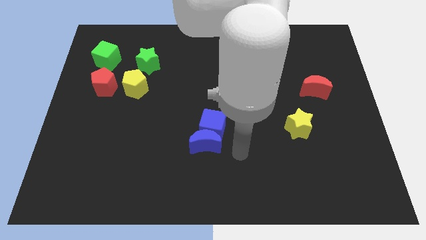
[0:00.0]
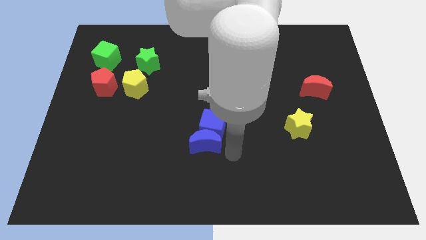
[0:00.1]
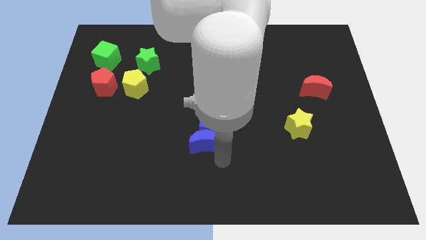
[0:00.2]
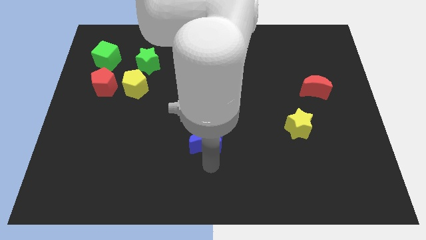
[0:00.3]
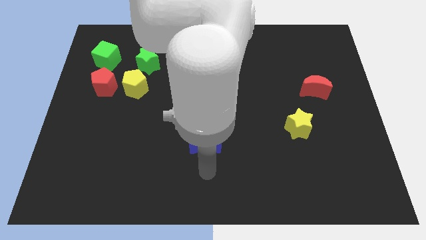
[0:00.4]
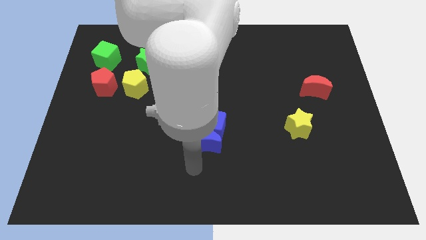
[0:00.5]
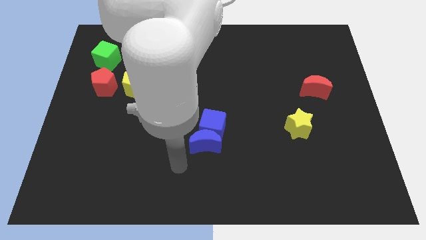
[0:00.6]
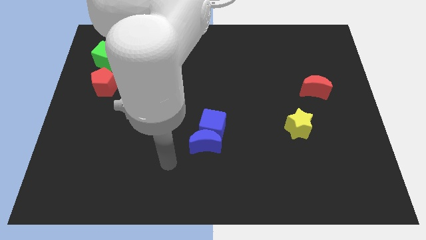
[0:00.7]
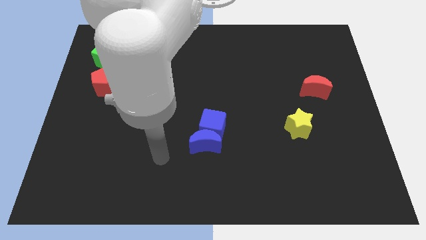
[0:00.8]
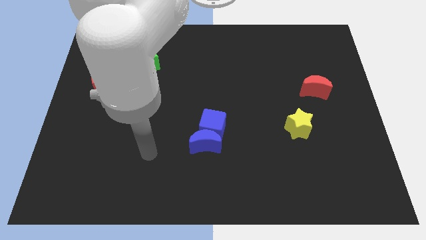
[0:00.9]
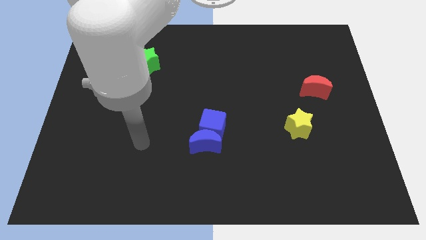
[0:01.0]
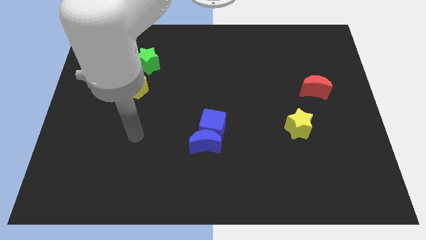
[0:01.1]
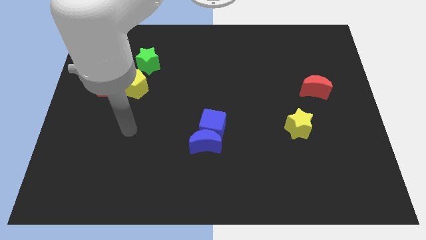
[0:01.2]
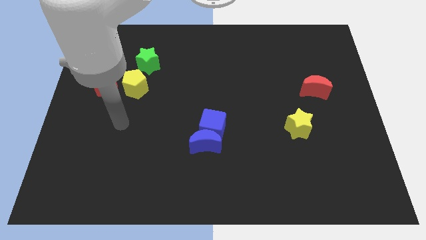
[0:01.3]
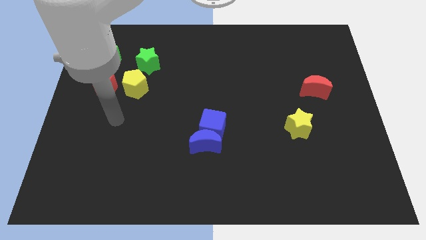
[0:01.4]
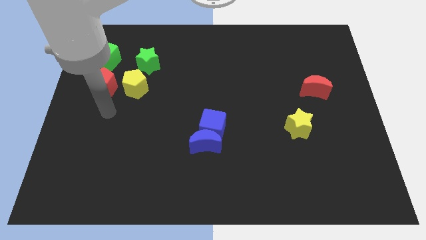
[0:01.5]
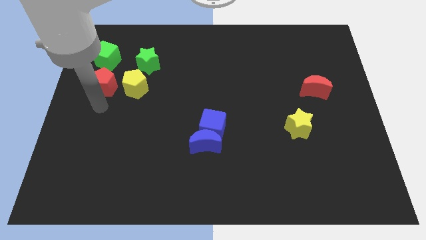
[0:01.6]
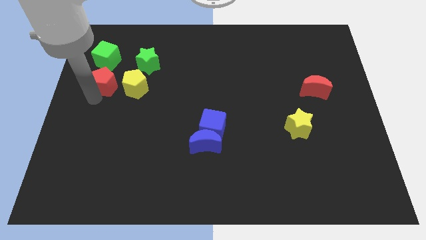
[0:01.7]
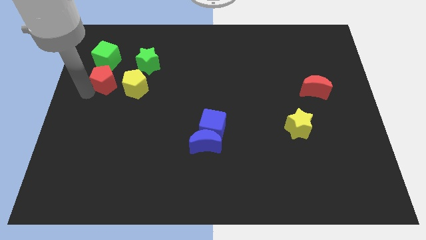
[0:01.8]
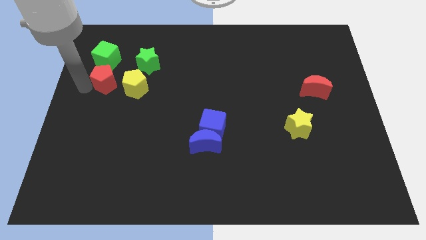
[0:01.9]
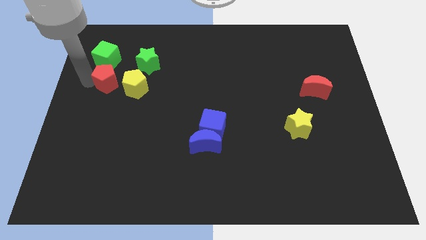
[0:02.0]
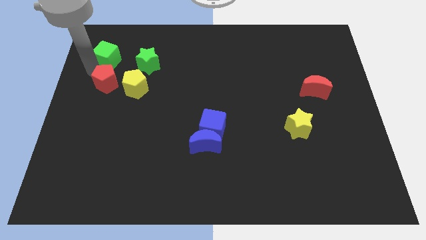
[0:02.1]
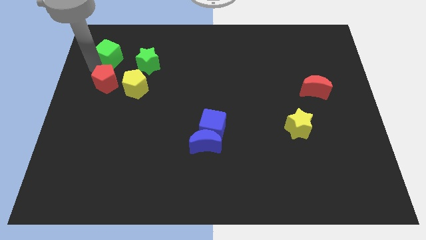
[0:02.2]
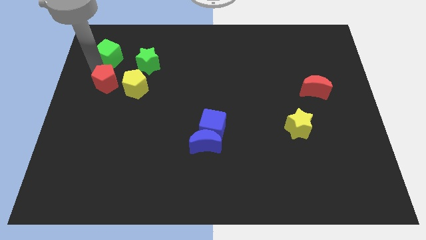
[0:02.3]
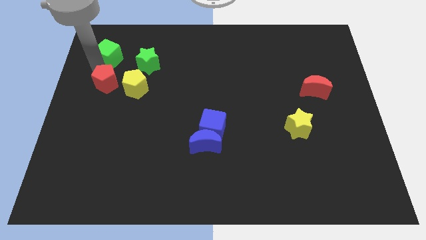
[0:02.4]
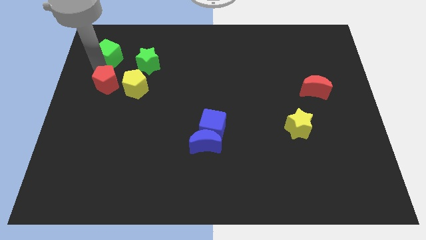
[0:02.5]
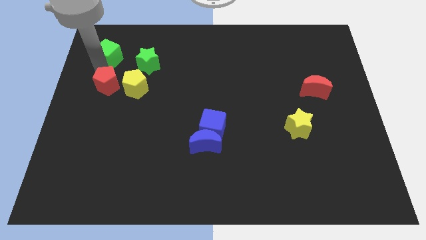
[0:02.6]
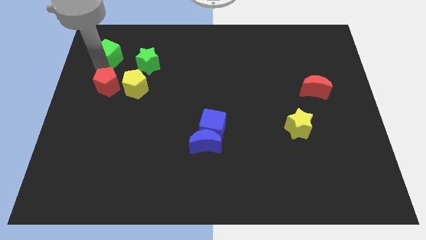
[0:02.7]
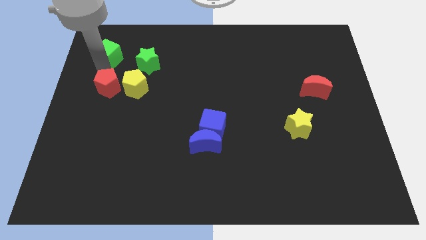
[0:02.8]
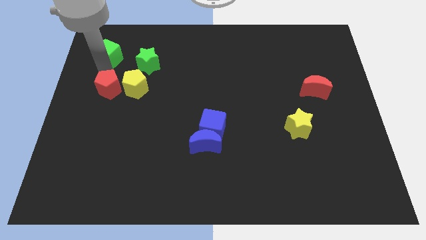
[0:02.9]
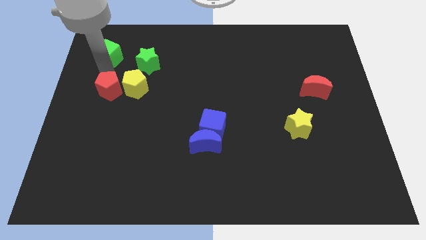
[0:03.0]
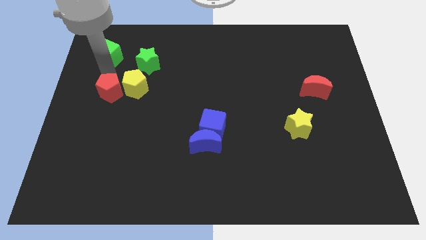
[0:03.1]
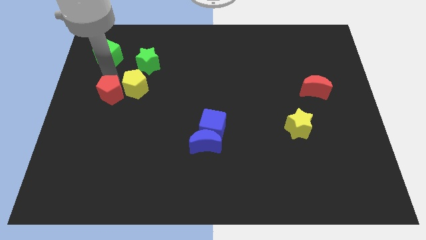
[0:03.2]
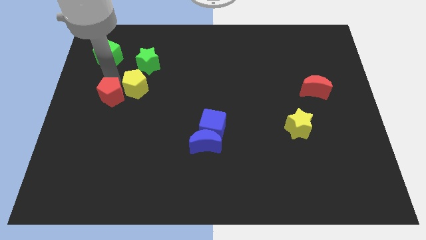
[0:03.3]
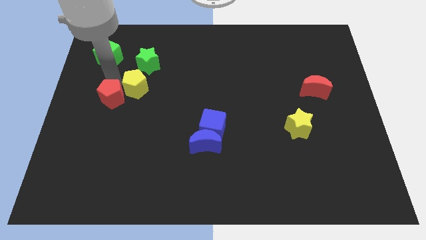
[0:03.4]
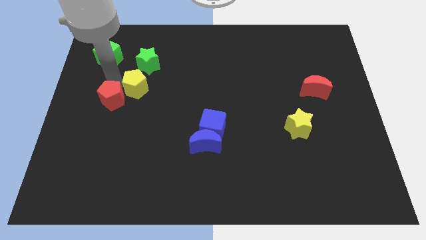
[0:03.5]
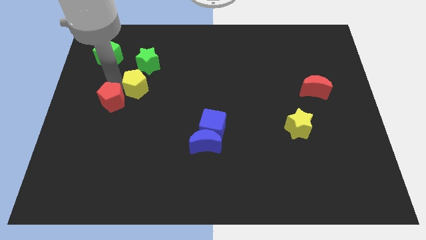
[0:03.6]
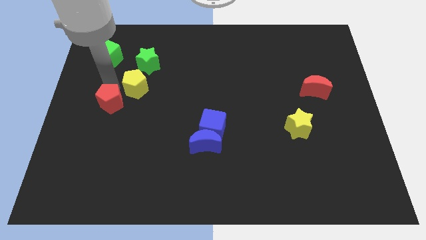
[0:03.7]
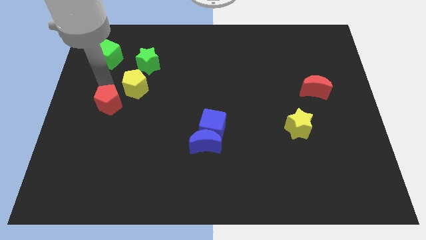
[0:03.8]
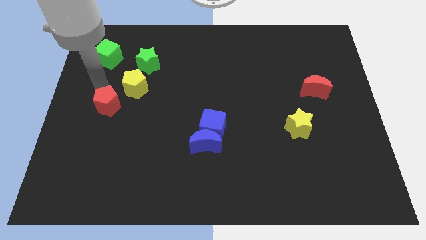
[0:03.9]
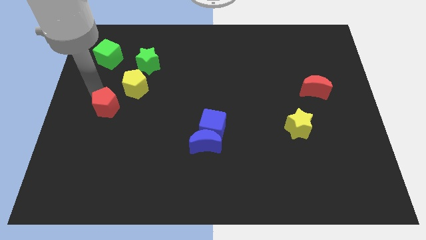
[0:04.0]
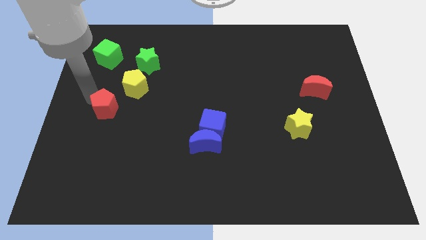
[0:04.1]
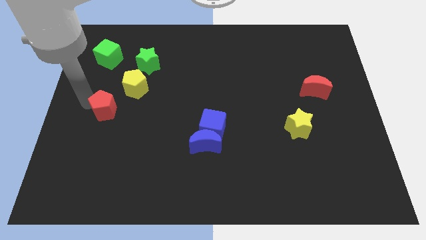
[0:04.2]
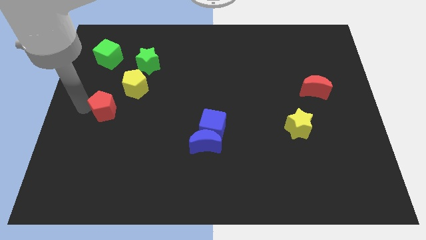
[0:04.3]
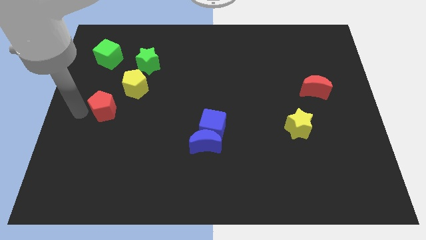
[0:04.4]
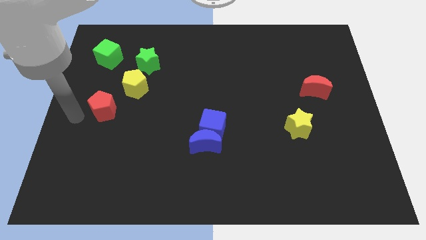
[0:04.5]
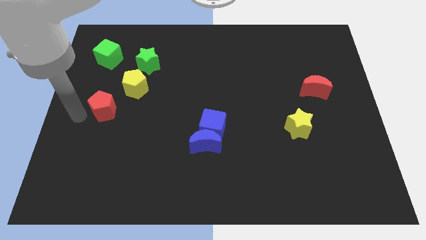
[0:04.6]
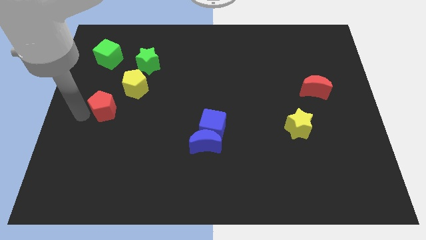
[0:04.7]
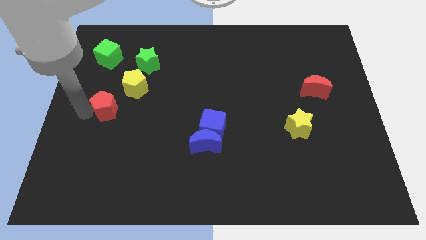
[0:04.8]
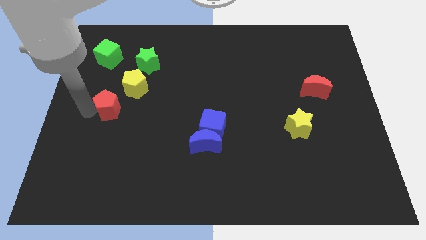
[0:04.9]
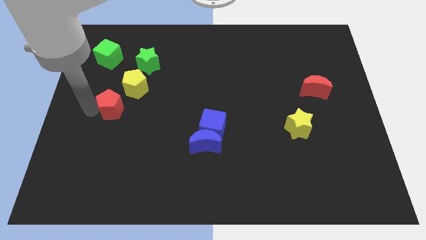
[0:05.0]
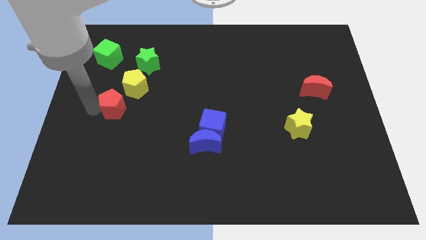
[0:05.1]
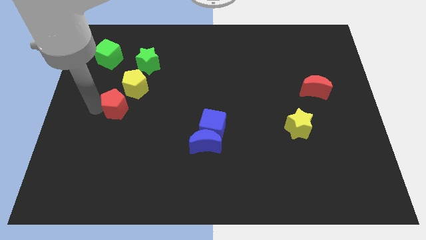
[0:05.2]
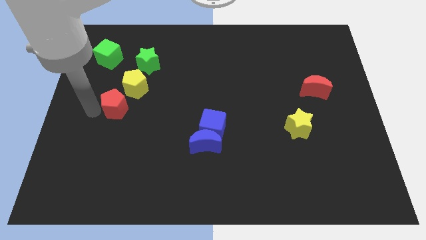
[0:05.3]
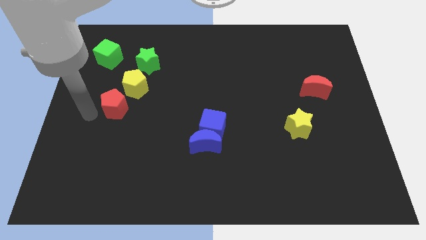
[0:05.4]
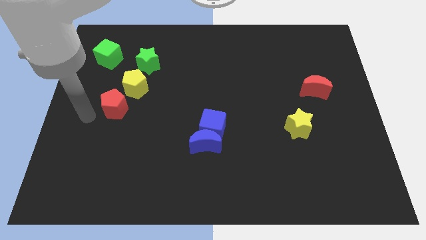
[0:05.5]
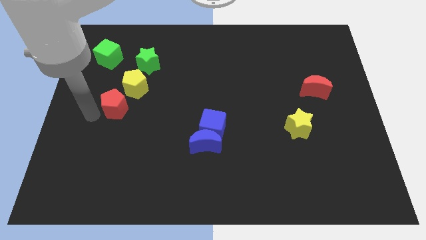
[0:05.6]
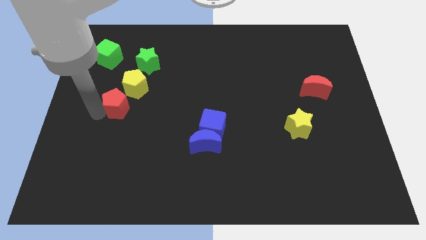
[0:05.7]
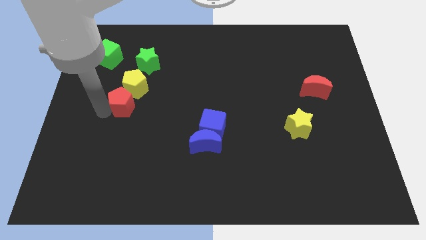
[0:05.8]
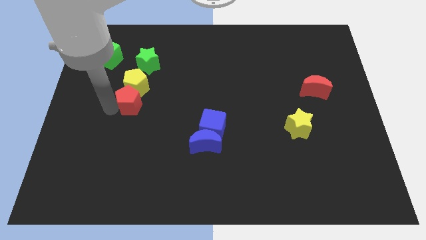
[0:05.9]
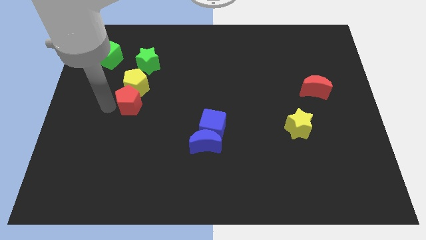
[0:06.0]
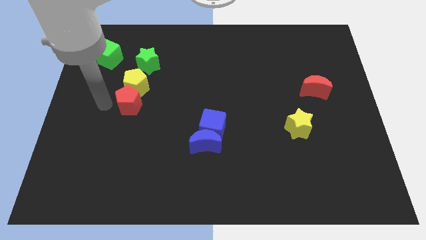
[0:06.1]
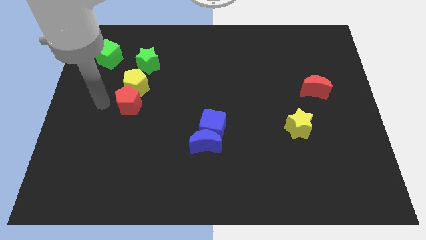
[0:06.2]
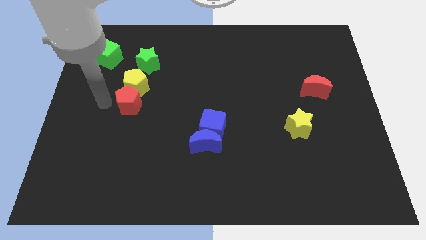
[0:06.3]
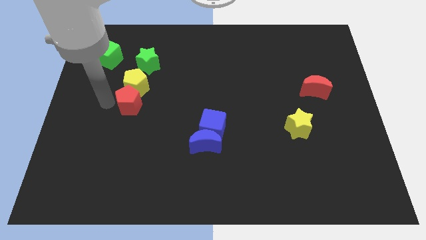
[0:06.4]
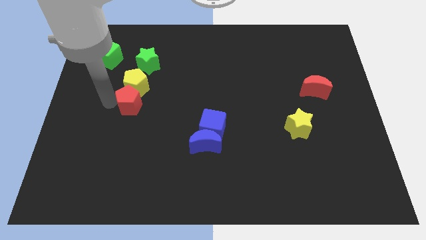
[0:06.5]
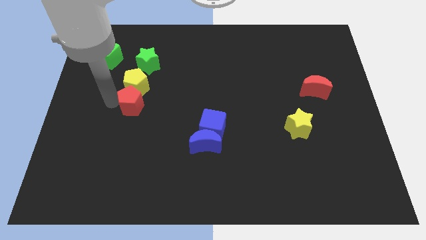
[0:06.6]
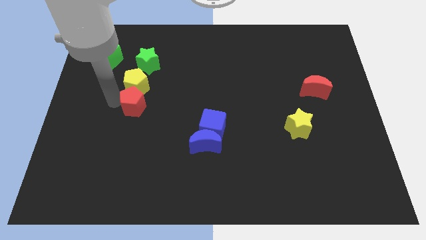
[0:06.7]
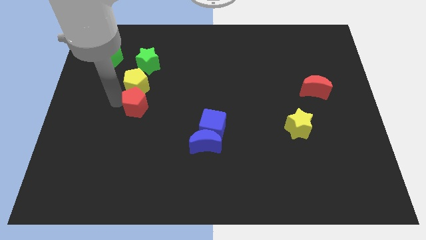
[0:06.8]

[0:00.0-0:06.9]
slightly slide the red pentagon right

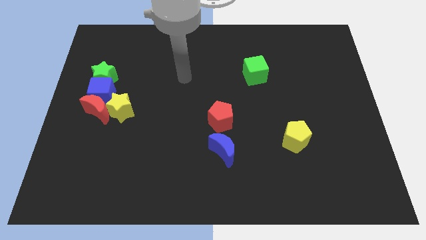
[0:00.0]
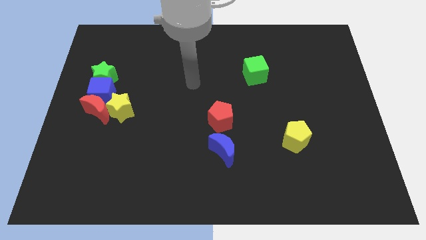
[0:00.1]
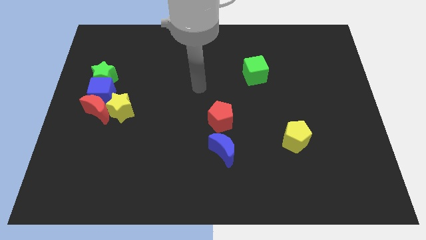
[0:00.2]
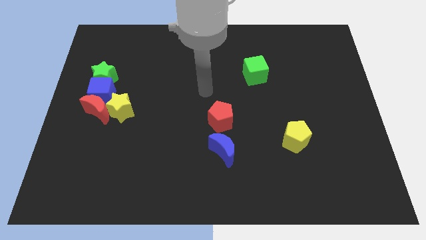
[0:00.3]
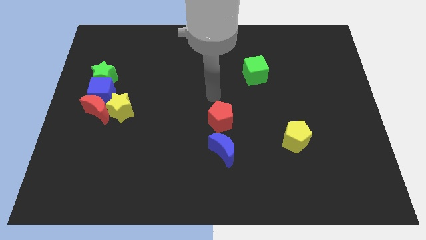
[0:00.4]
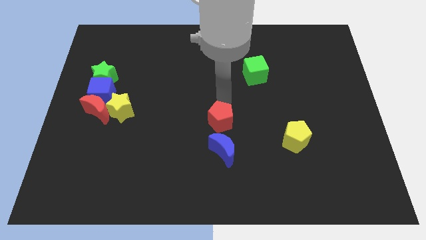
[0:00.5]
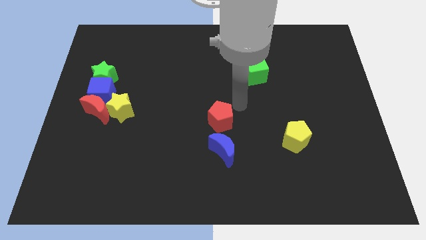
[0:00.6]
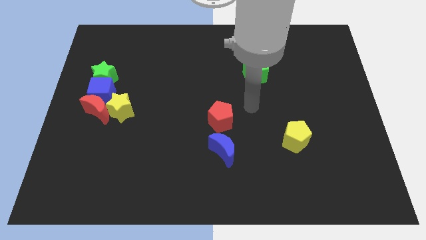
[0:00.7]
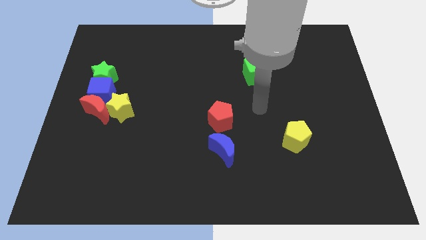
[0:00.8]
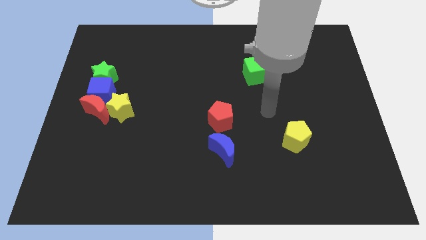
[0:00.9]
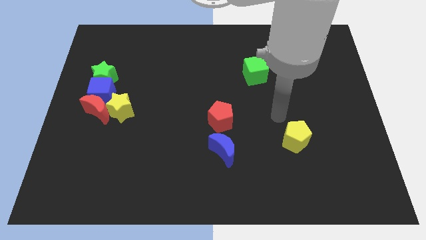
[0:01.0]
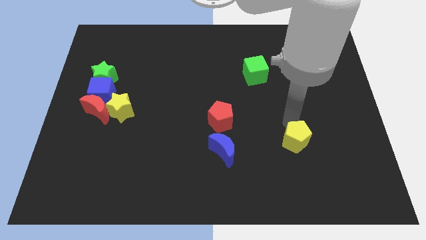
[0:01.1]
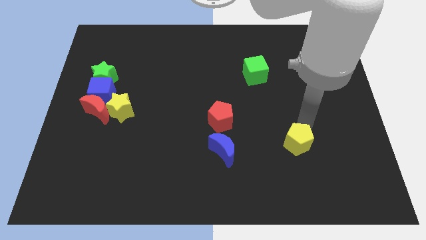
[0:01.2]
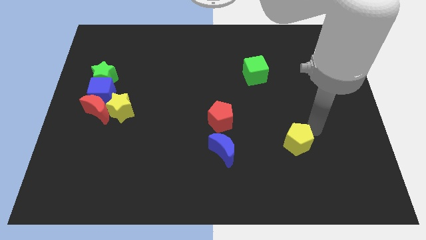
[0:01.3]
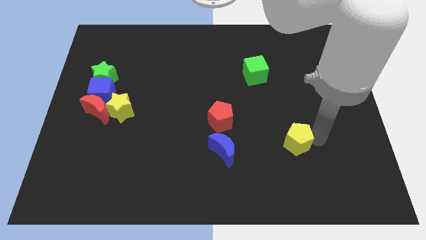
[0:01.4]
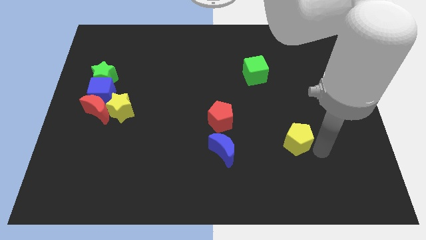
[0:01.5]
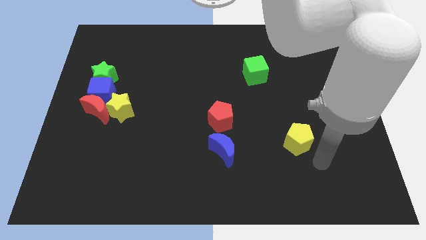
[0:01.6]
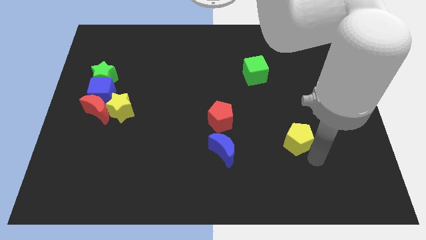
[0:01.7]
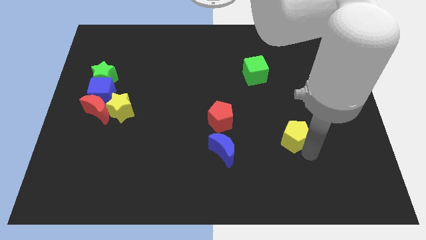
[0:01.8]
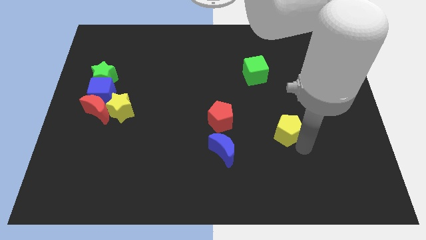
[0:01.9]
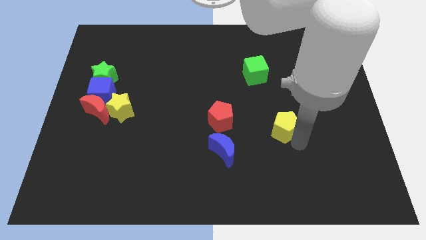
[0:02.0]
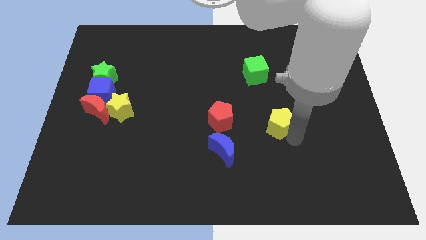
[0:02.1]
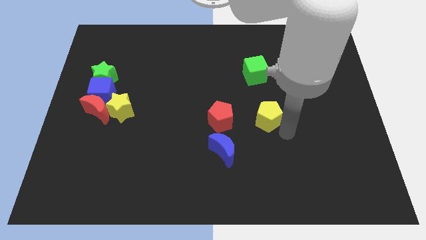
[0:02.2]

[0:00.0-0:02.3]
push the yellow pentagon a bit upwards and to the left
